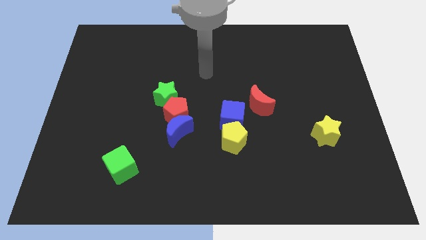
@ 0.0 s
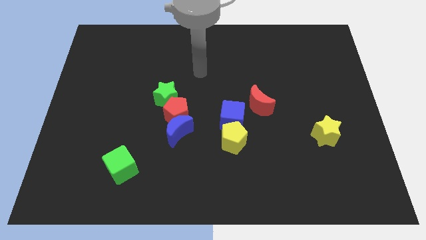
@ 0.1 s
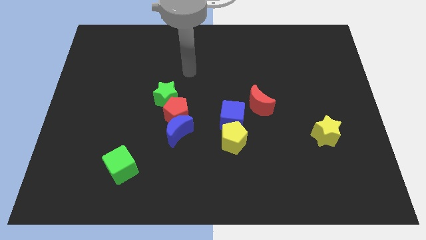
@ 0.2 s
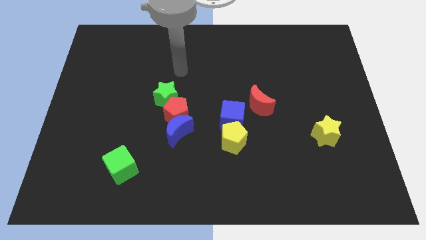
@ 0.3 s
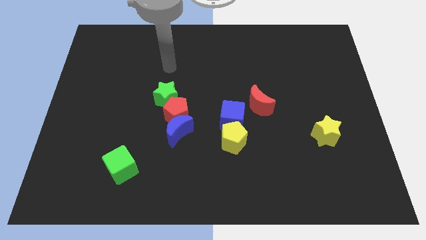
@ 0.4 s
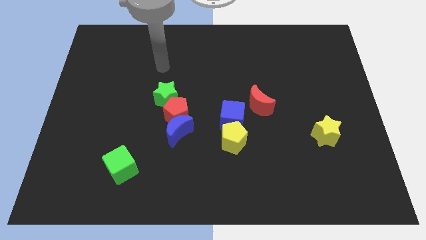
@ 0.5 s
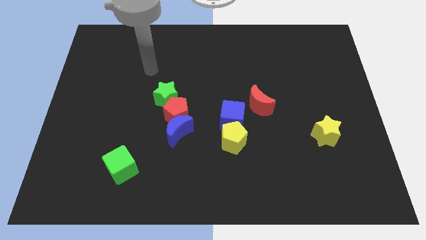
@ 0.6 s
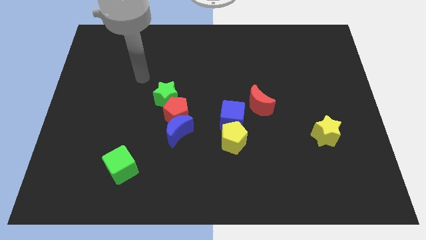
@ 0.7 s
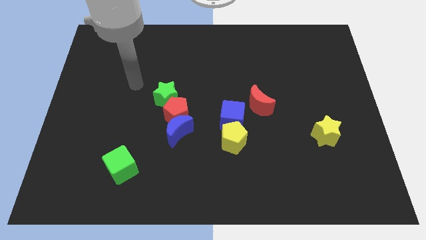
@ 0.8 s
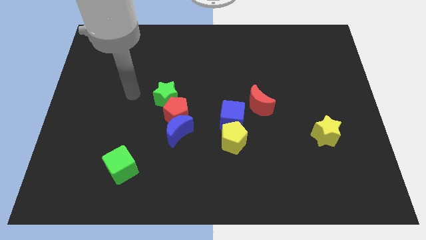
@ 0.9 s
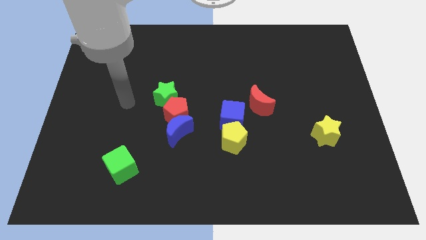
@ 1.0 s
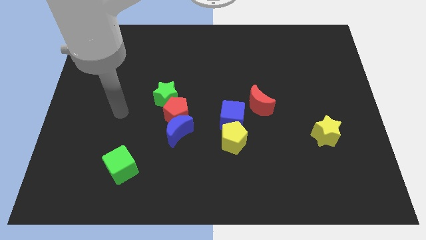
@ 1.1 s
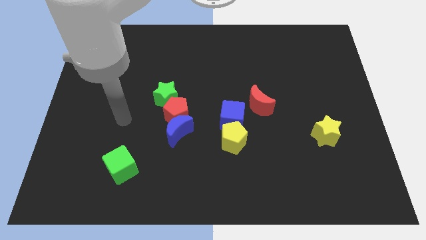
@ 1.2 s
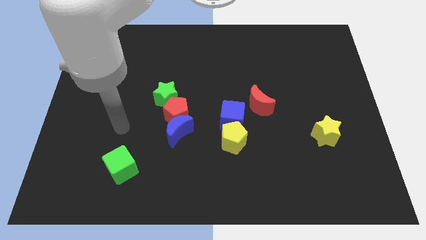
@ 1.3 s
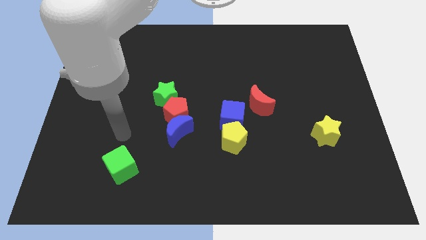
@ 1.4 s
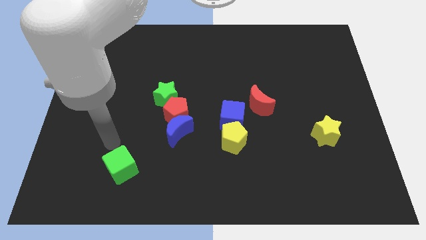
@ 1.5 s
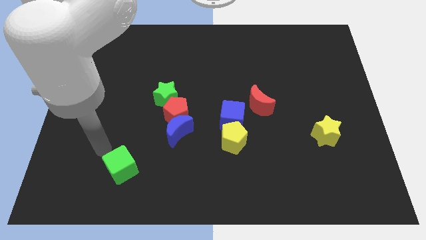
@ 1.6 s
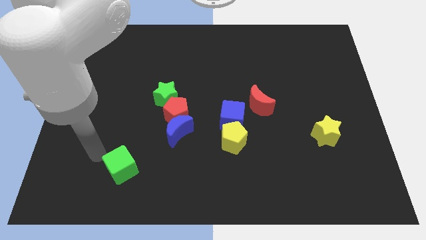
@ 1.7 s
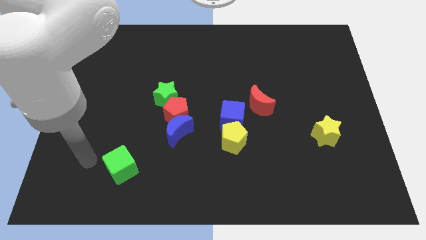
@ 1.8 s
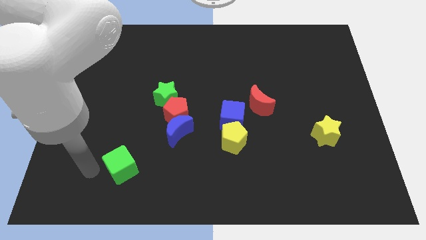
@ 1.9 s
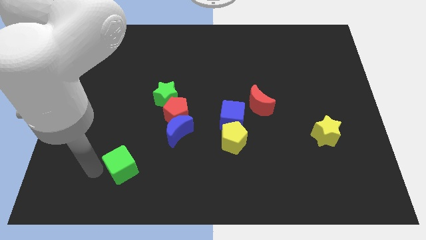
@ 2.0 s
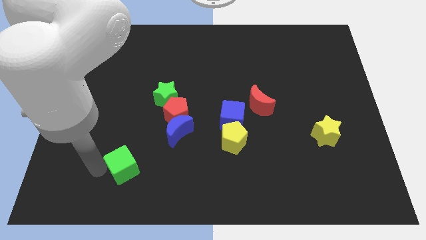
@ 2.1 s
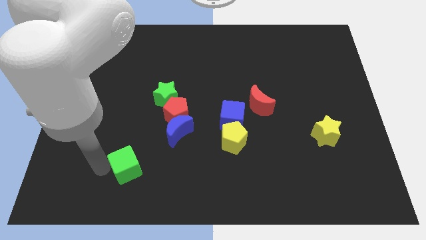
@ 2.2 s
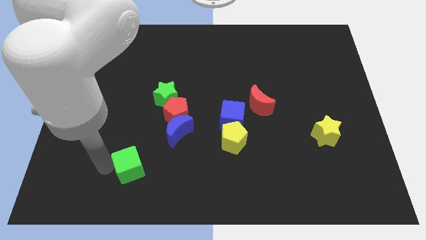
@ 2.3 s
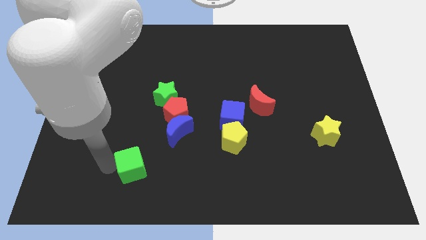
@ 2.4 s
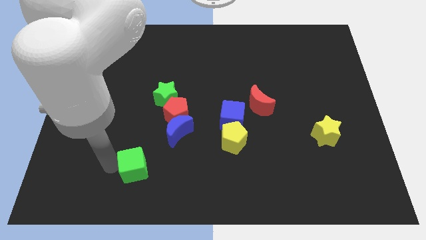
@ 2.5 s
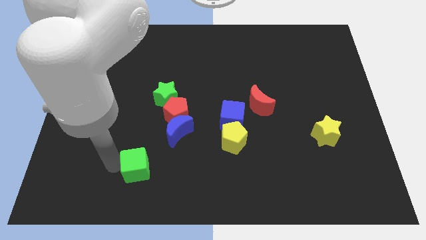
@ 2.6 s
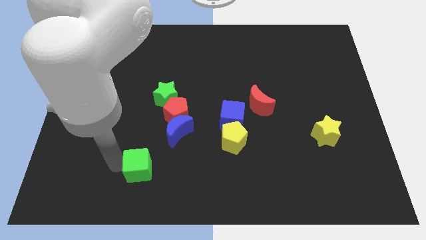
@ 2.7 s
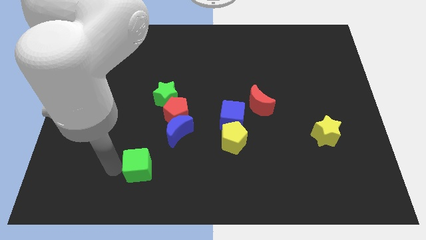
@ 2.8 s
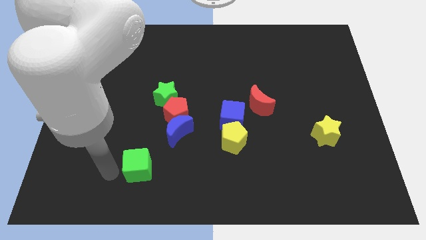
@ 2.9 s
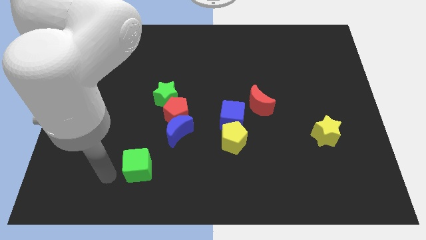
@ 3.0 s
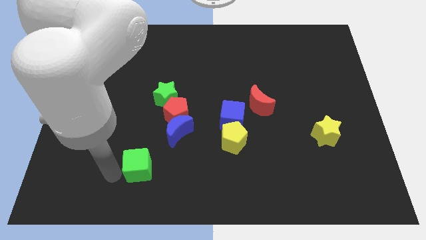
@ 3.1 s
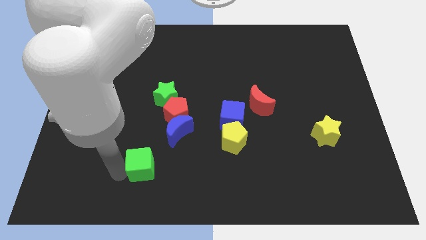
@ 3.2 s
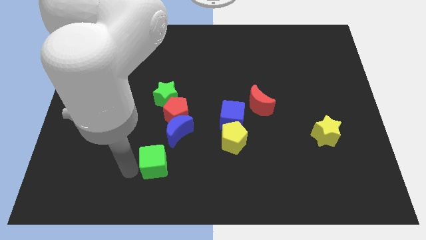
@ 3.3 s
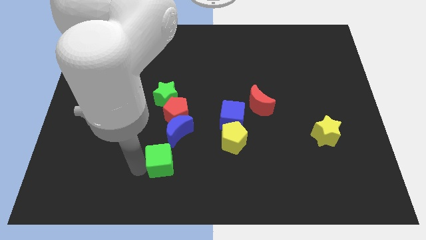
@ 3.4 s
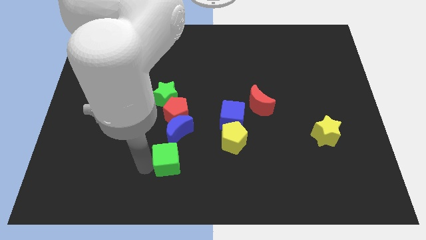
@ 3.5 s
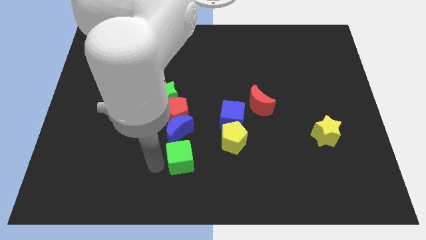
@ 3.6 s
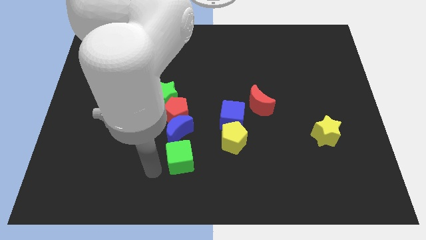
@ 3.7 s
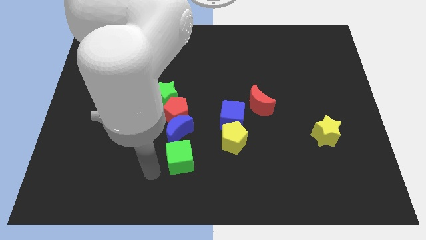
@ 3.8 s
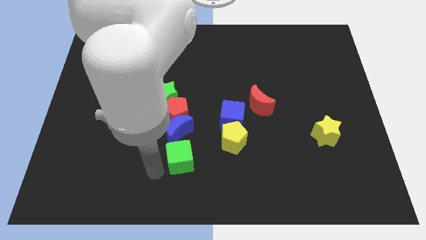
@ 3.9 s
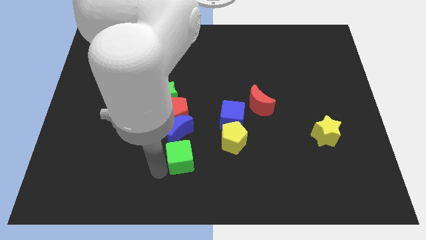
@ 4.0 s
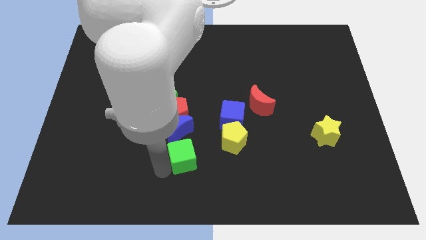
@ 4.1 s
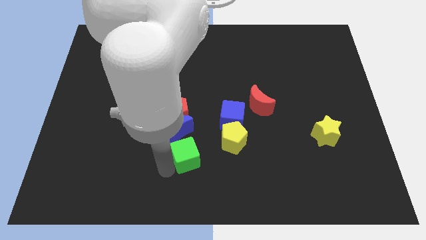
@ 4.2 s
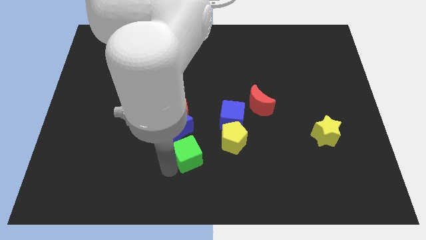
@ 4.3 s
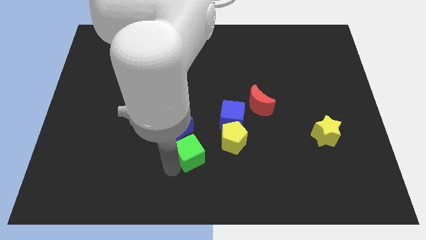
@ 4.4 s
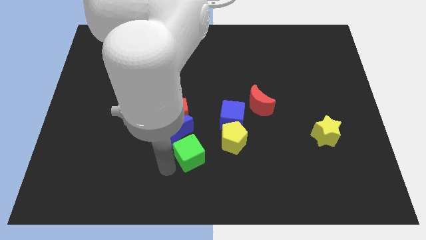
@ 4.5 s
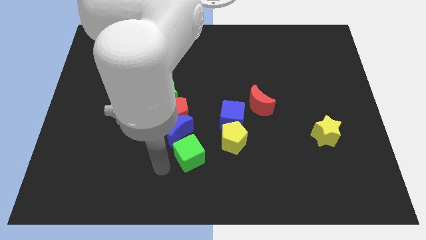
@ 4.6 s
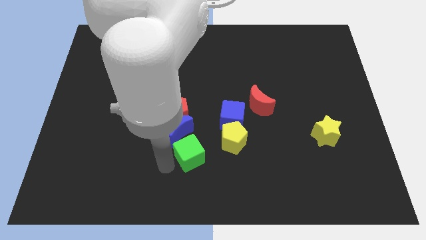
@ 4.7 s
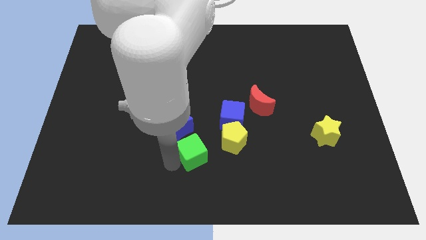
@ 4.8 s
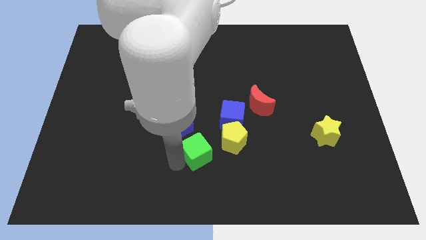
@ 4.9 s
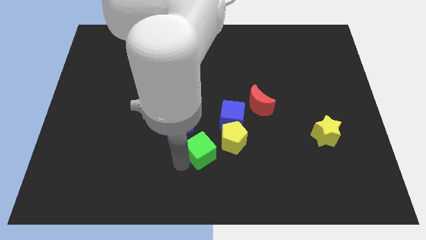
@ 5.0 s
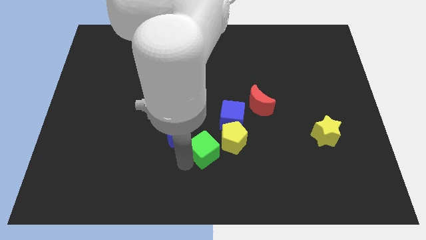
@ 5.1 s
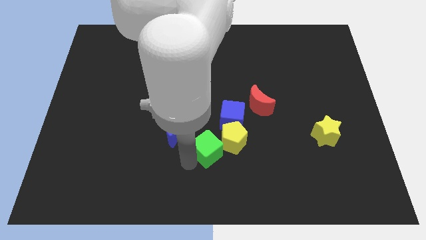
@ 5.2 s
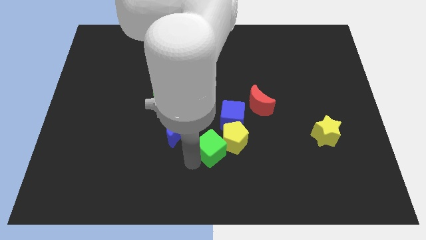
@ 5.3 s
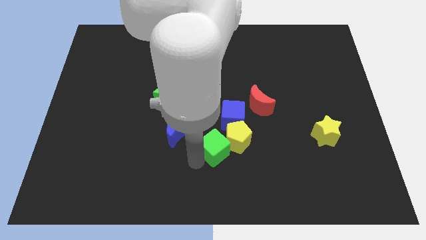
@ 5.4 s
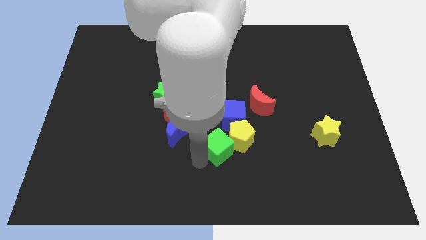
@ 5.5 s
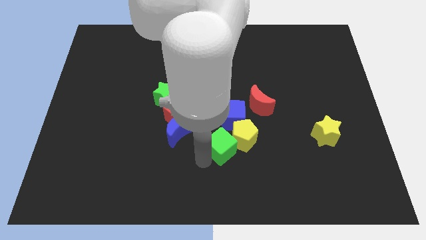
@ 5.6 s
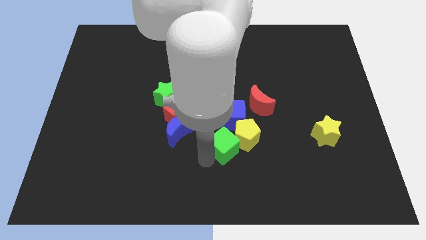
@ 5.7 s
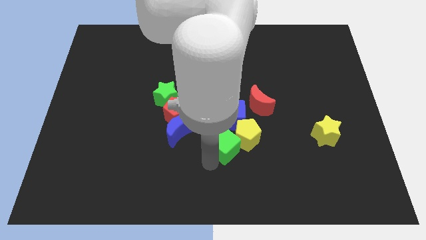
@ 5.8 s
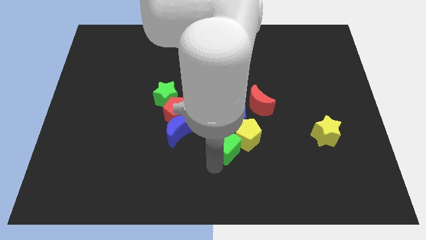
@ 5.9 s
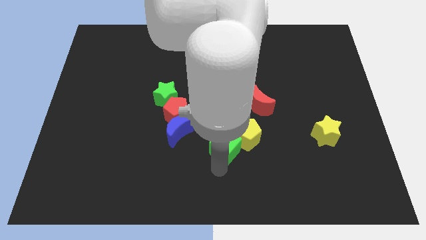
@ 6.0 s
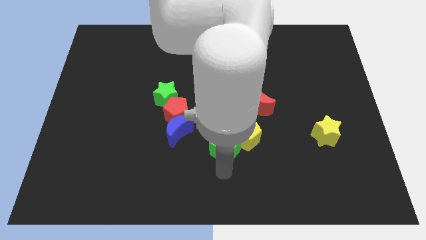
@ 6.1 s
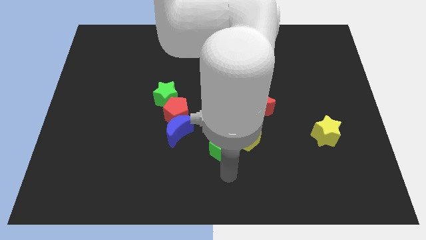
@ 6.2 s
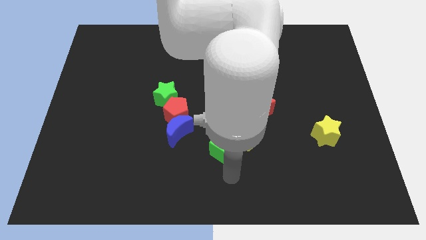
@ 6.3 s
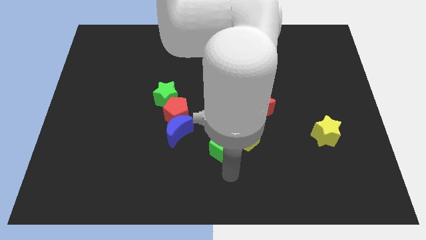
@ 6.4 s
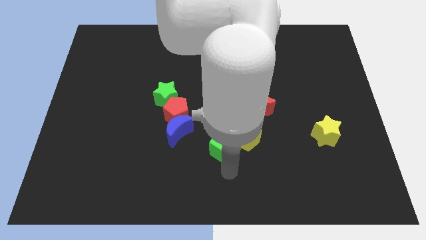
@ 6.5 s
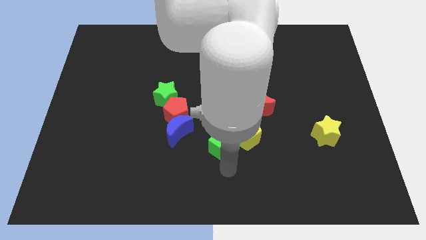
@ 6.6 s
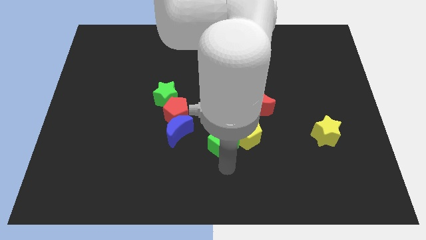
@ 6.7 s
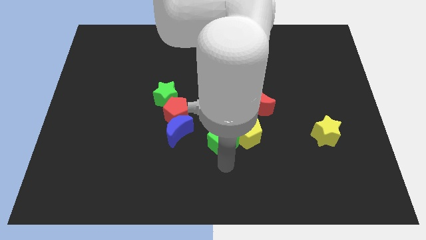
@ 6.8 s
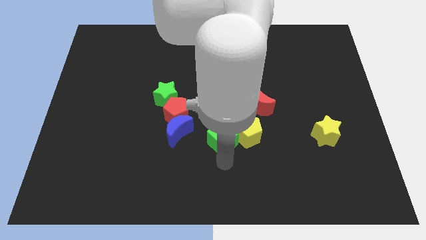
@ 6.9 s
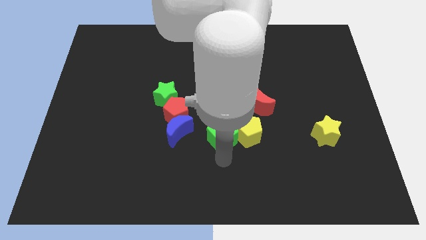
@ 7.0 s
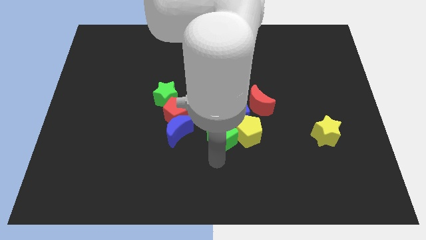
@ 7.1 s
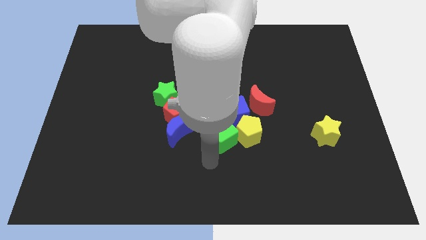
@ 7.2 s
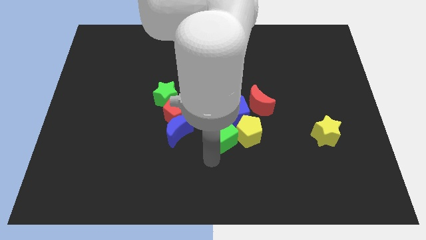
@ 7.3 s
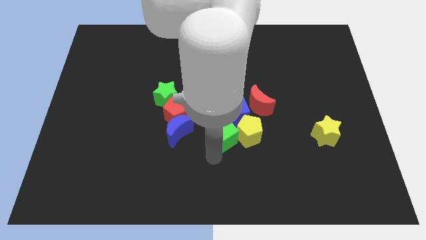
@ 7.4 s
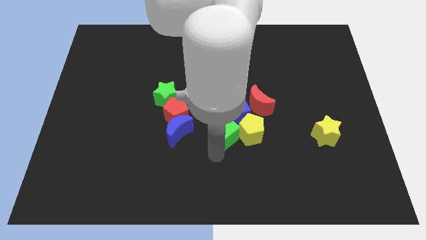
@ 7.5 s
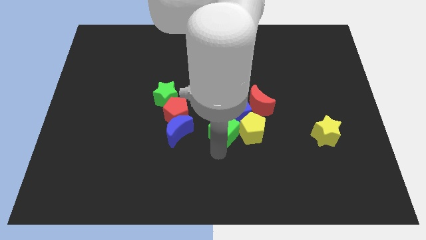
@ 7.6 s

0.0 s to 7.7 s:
move the green cube next to the blue cube
